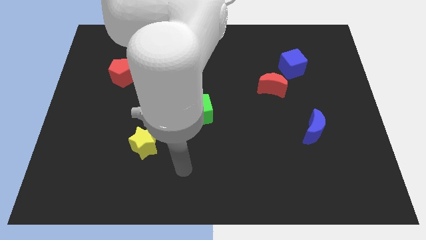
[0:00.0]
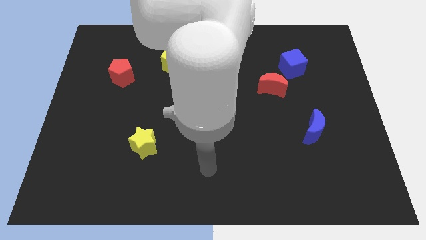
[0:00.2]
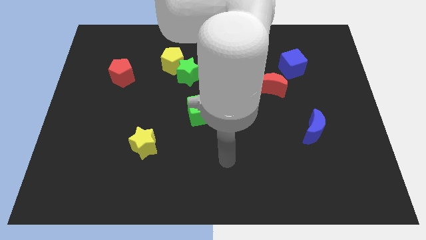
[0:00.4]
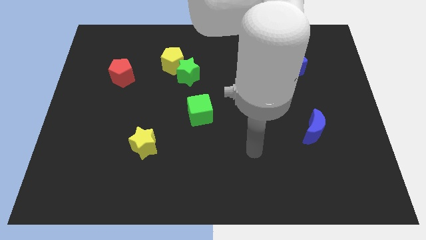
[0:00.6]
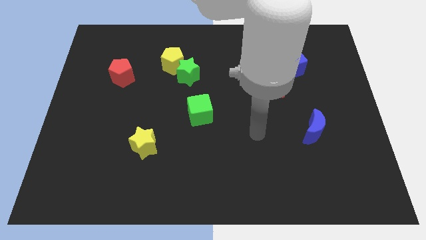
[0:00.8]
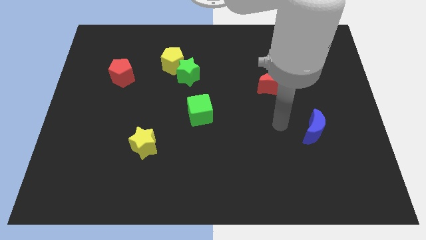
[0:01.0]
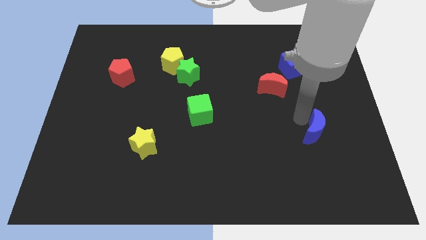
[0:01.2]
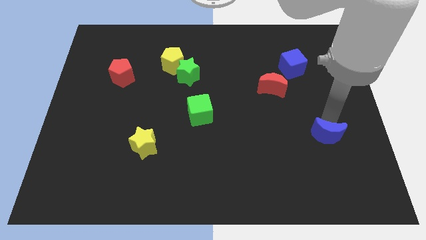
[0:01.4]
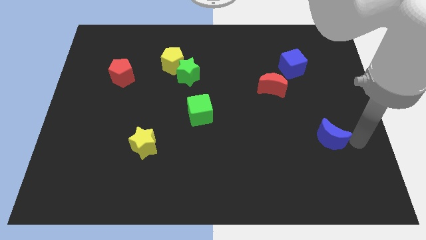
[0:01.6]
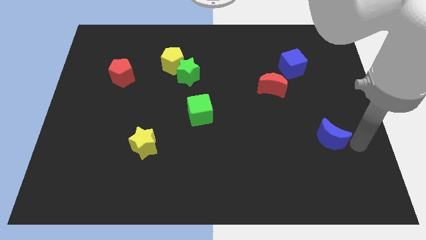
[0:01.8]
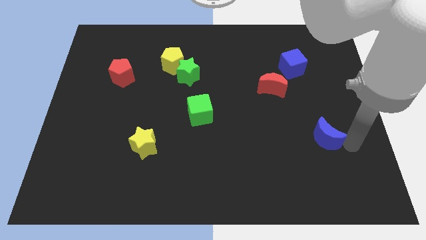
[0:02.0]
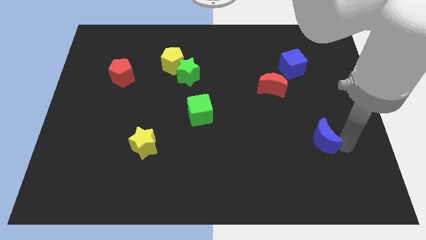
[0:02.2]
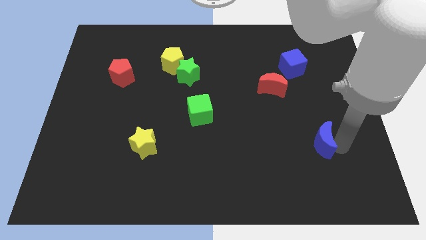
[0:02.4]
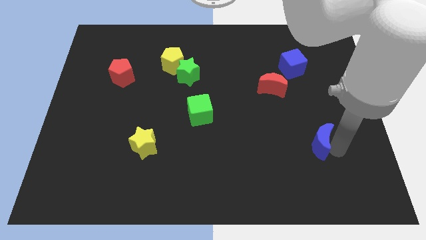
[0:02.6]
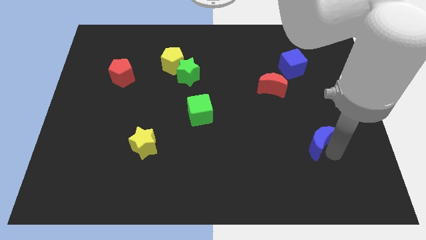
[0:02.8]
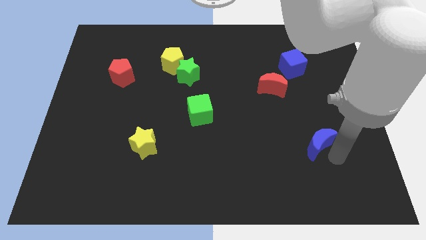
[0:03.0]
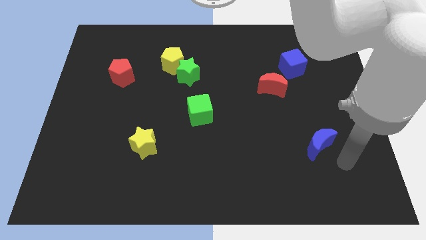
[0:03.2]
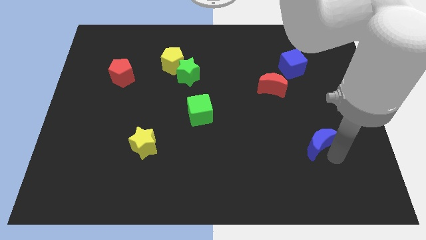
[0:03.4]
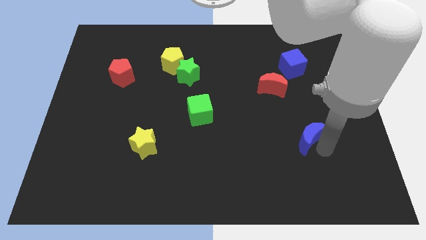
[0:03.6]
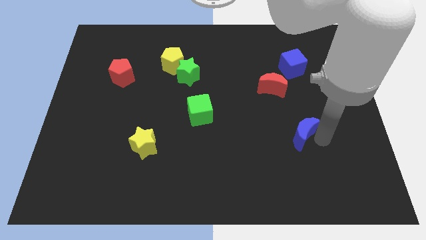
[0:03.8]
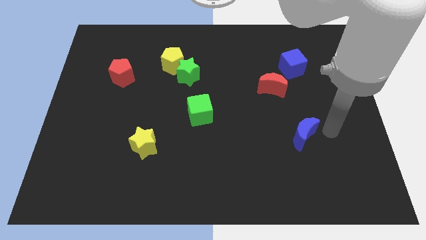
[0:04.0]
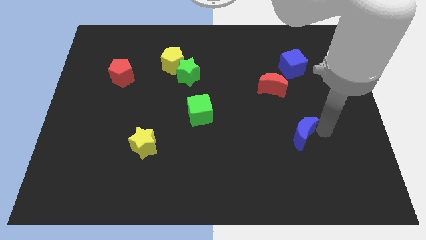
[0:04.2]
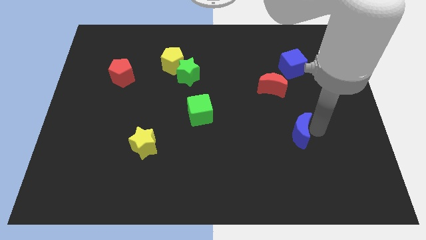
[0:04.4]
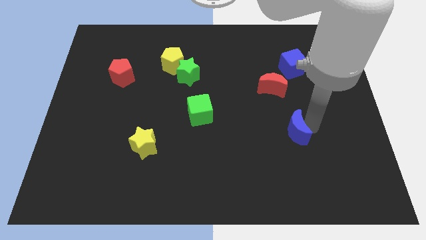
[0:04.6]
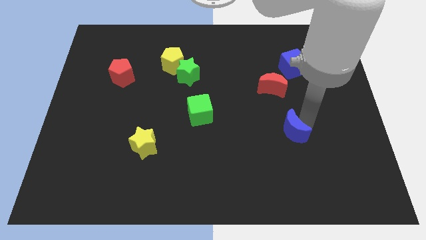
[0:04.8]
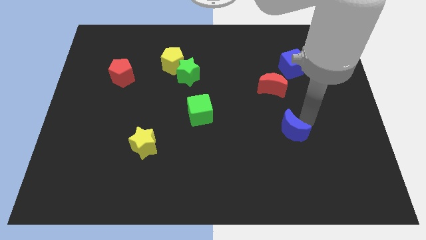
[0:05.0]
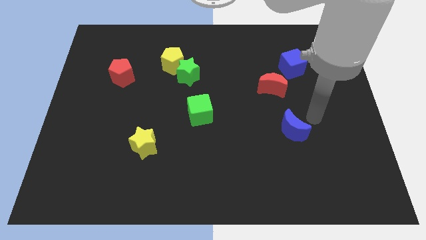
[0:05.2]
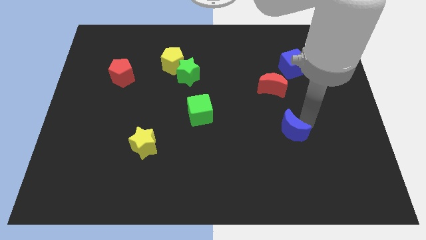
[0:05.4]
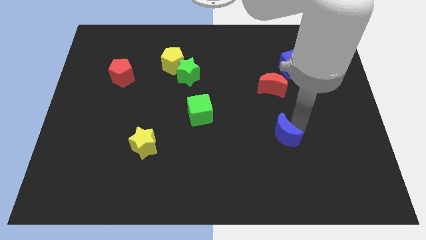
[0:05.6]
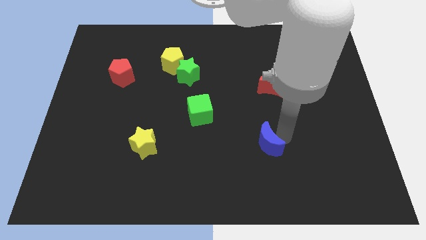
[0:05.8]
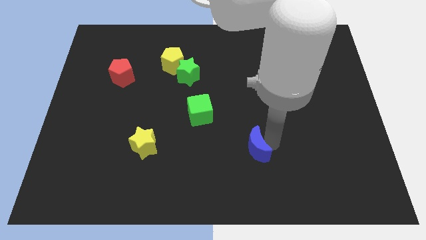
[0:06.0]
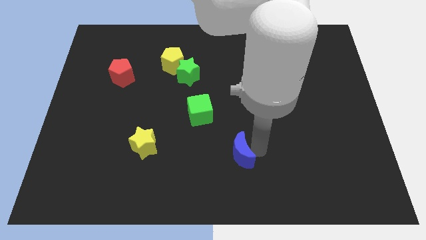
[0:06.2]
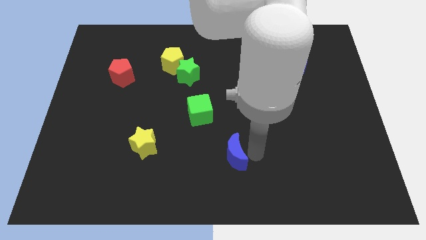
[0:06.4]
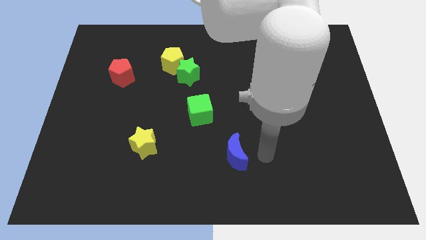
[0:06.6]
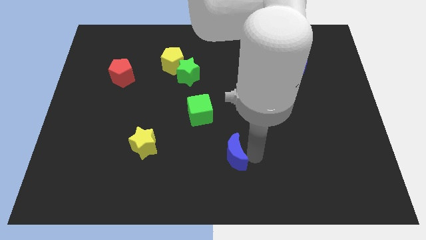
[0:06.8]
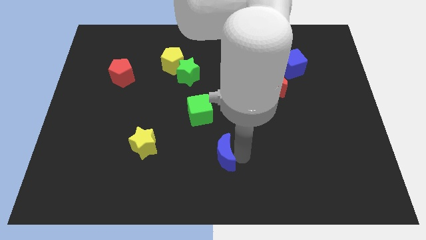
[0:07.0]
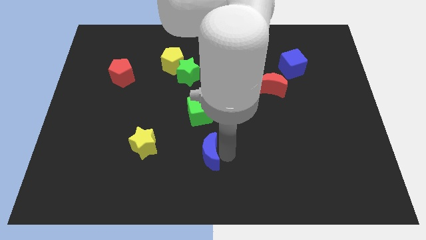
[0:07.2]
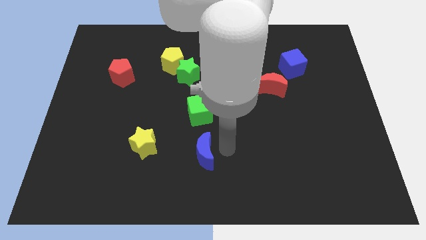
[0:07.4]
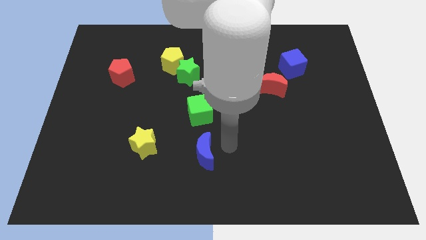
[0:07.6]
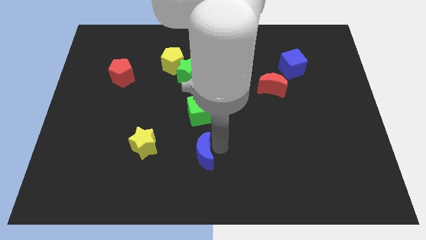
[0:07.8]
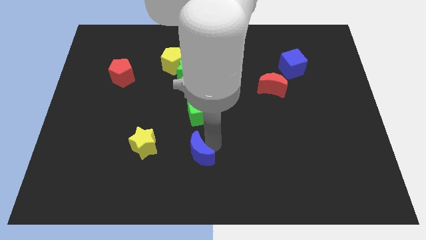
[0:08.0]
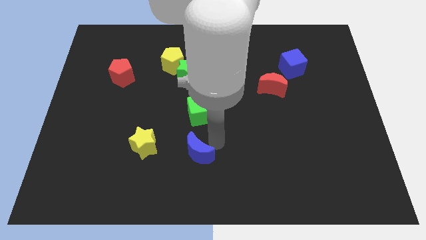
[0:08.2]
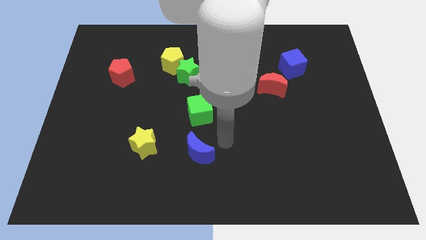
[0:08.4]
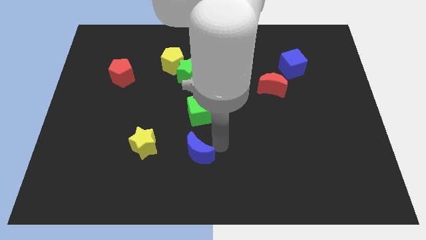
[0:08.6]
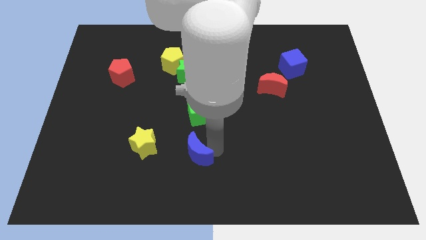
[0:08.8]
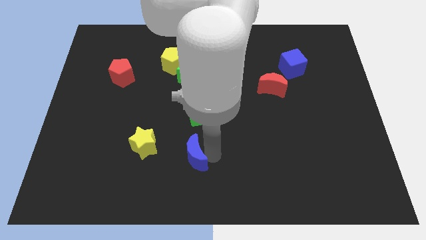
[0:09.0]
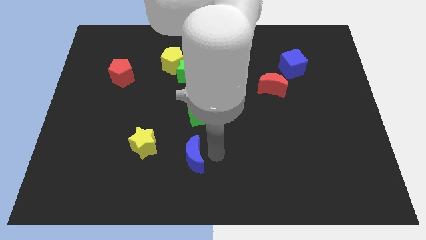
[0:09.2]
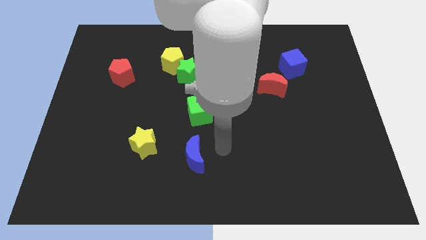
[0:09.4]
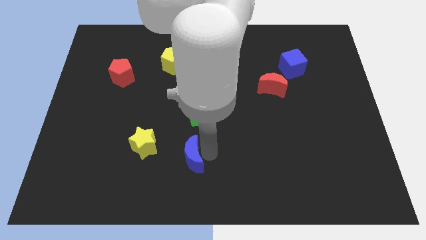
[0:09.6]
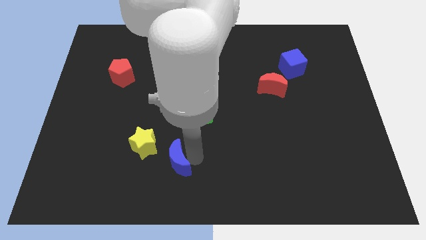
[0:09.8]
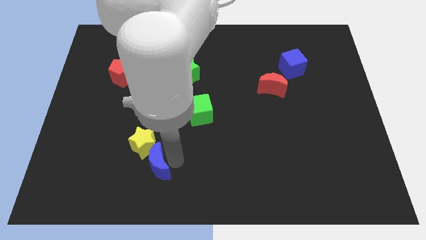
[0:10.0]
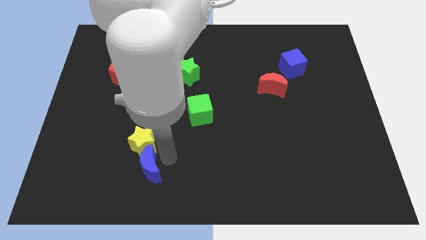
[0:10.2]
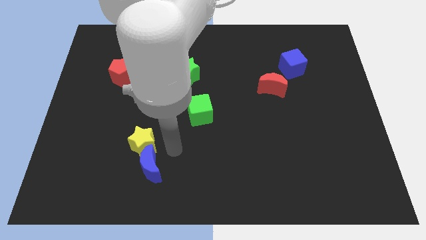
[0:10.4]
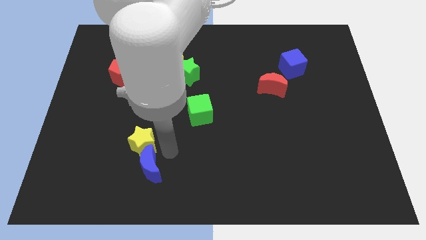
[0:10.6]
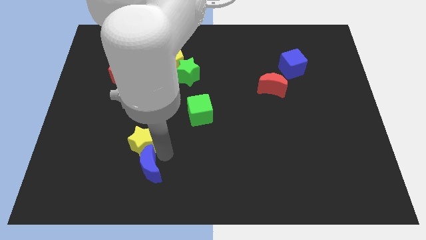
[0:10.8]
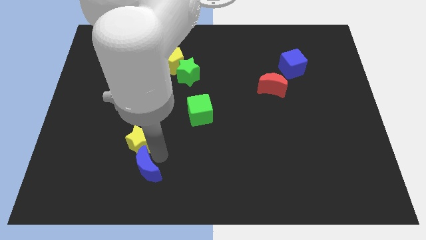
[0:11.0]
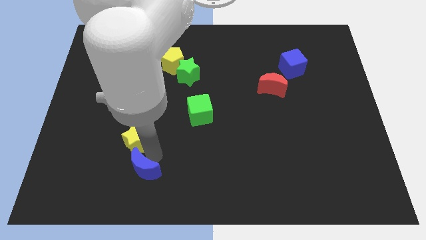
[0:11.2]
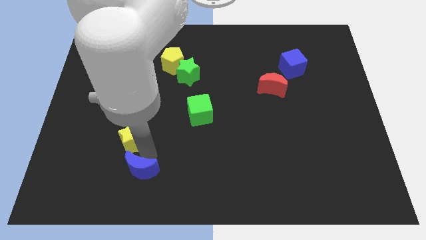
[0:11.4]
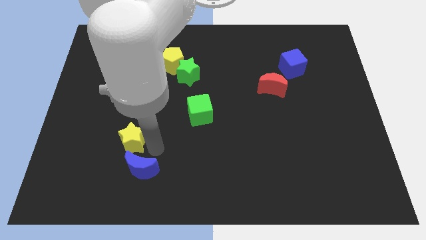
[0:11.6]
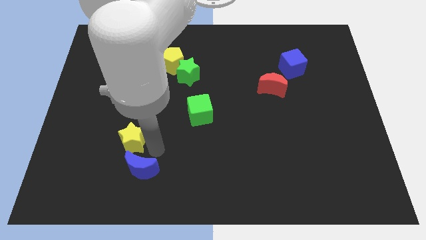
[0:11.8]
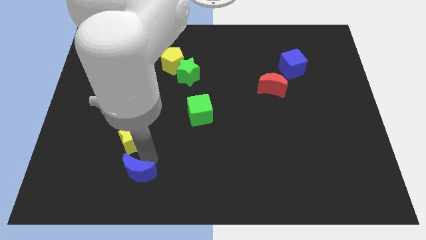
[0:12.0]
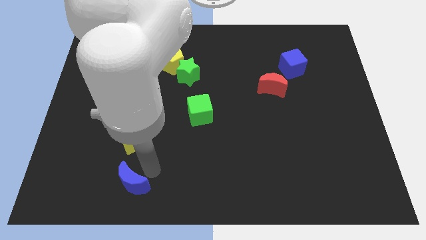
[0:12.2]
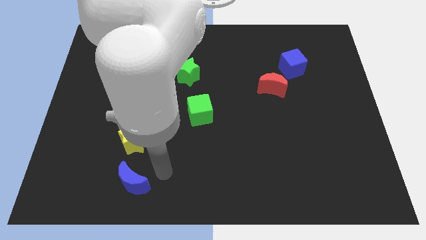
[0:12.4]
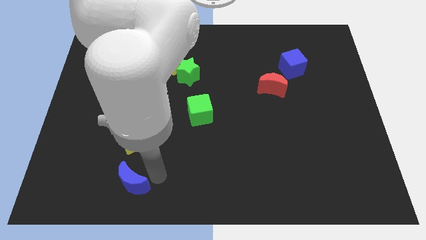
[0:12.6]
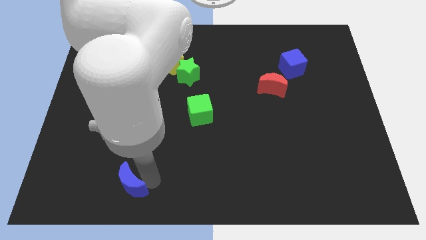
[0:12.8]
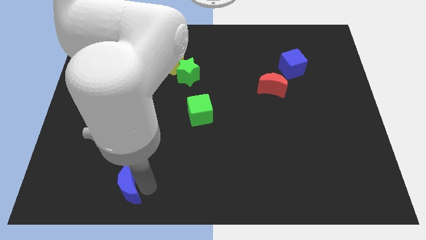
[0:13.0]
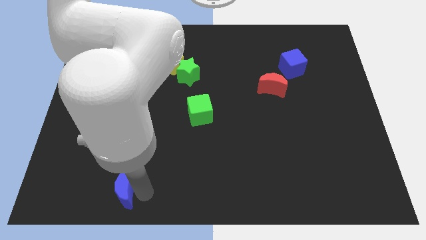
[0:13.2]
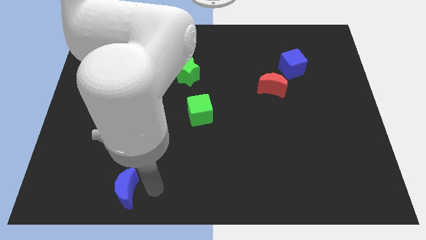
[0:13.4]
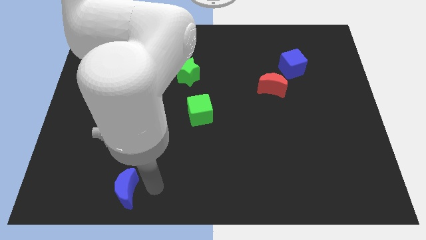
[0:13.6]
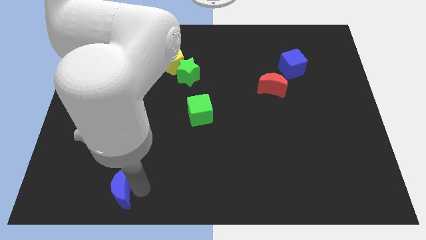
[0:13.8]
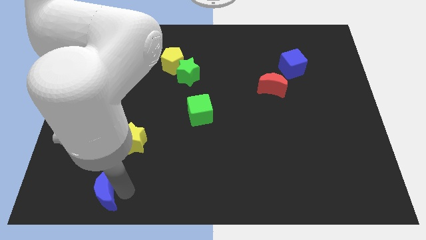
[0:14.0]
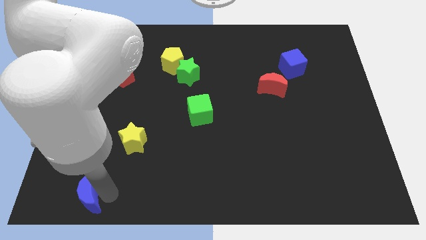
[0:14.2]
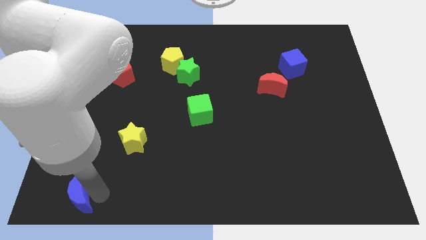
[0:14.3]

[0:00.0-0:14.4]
slide the blue moon to the lower left corner
